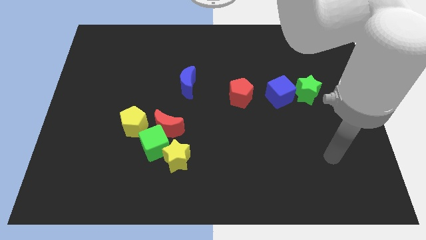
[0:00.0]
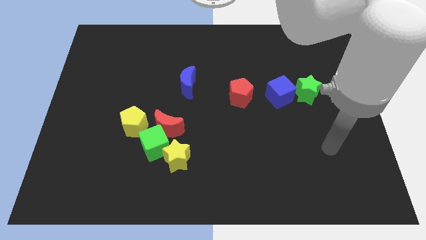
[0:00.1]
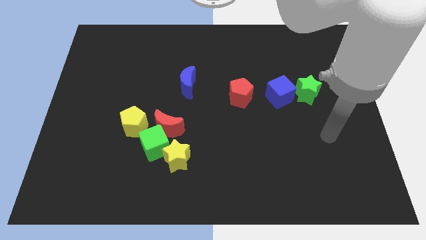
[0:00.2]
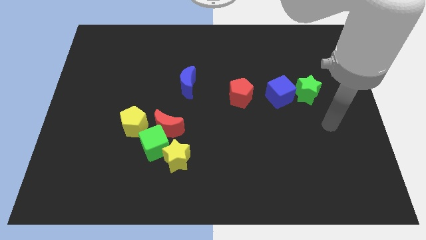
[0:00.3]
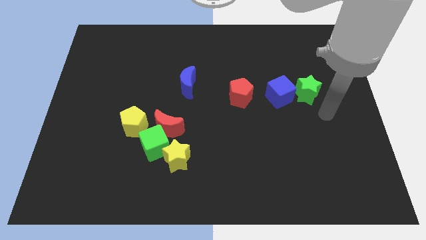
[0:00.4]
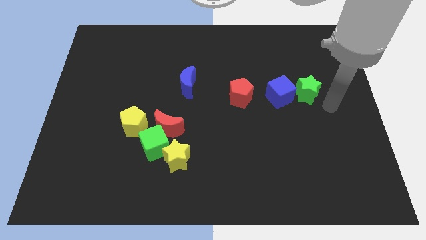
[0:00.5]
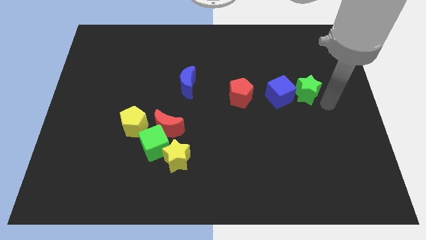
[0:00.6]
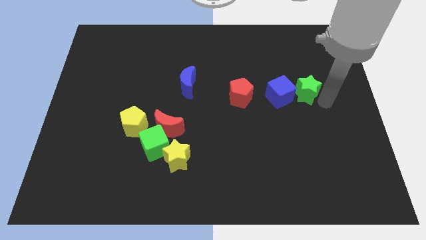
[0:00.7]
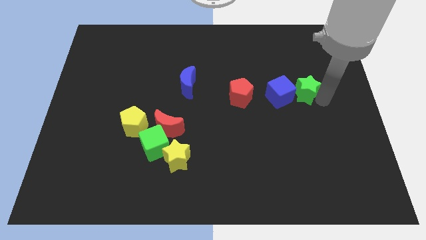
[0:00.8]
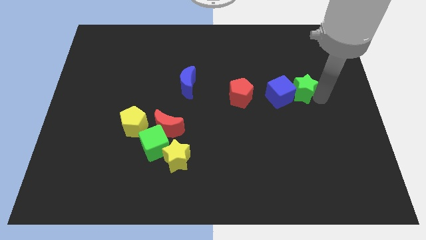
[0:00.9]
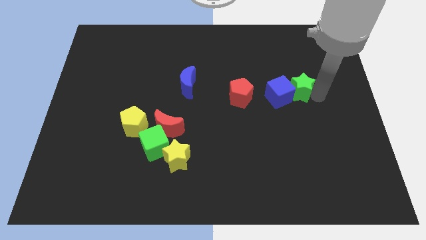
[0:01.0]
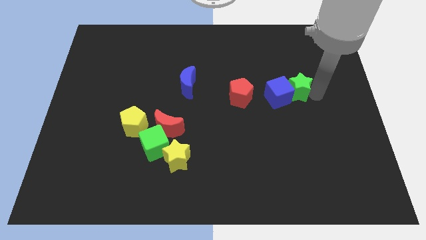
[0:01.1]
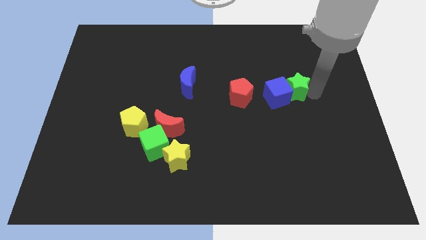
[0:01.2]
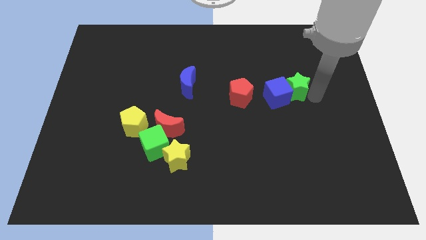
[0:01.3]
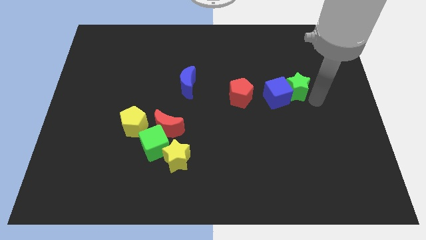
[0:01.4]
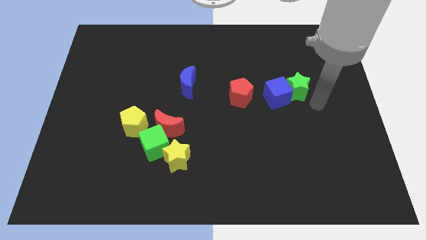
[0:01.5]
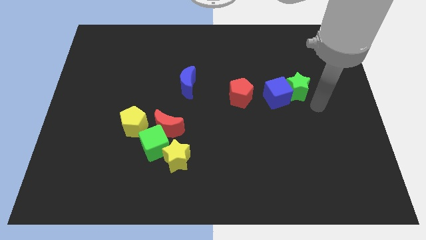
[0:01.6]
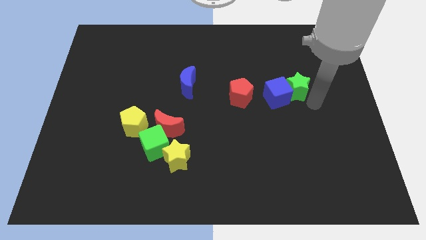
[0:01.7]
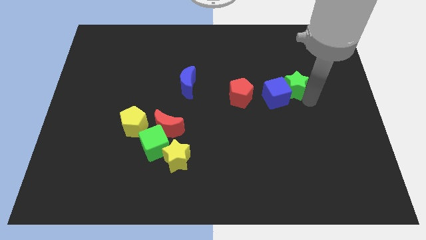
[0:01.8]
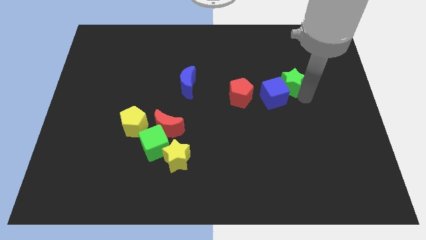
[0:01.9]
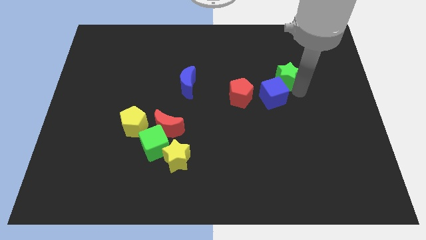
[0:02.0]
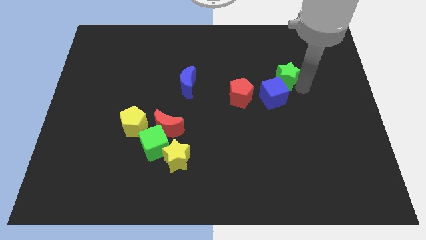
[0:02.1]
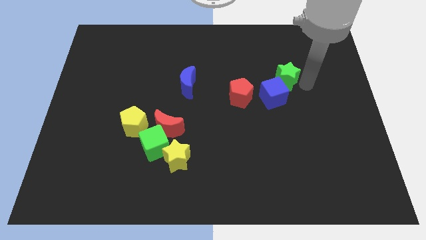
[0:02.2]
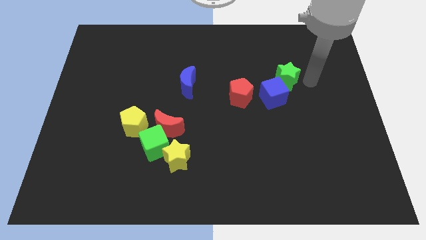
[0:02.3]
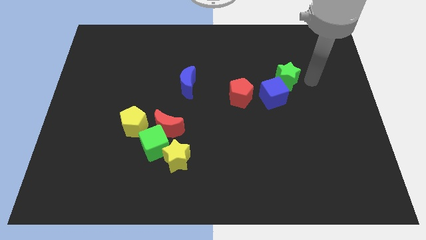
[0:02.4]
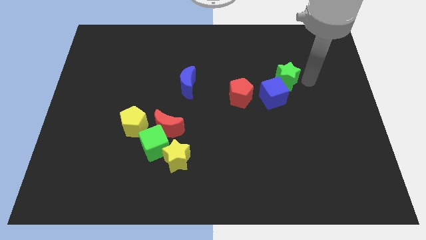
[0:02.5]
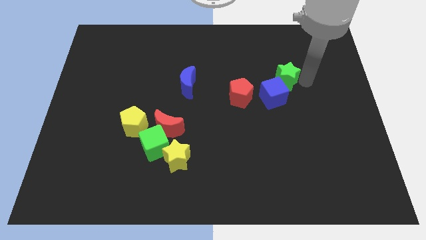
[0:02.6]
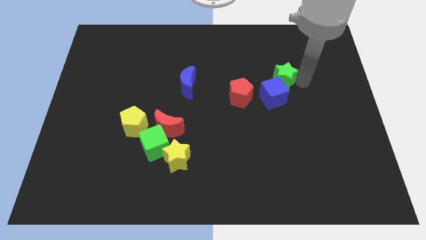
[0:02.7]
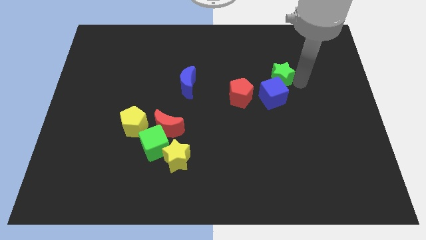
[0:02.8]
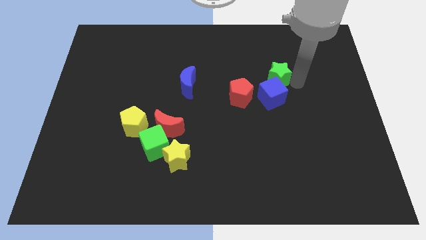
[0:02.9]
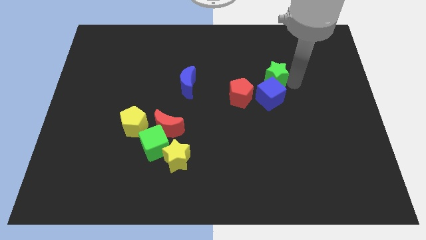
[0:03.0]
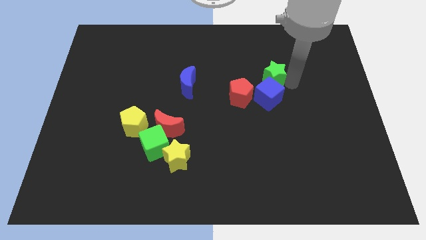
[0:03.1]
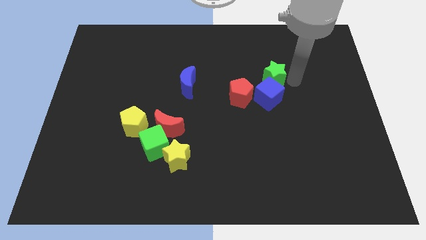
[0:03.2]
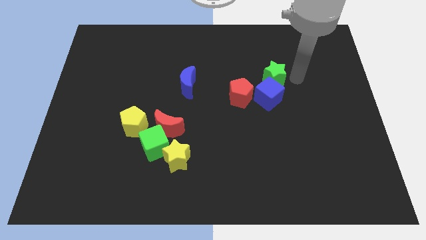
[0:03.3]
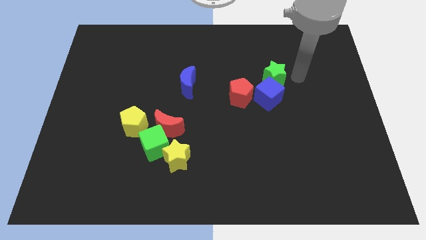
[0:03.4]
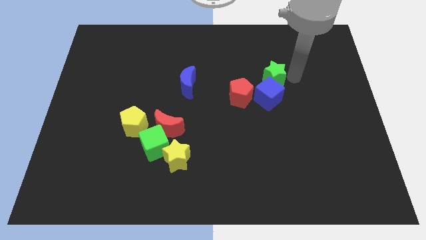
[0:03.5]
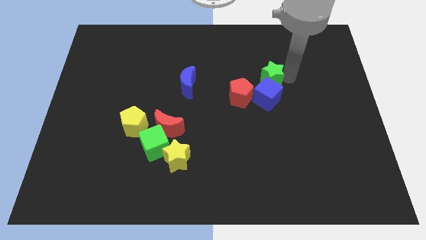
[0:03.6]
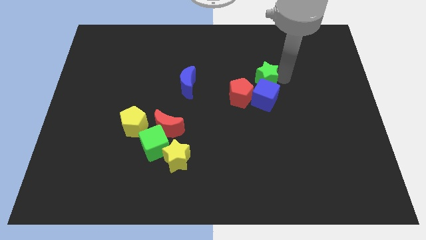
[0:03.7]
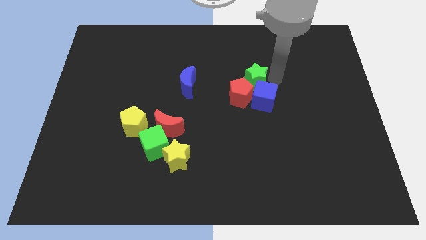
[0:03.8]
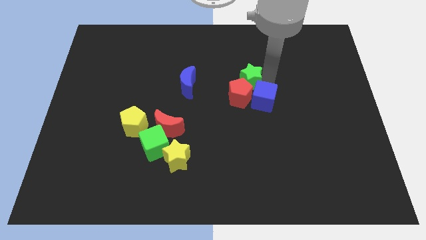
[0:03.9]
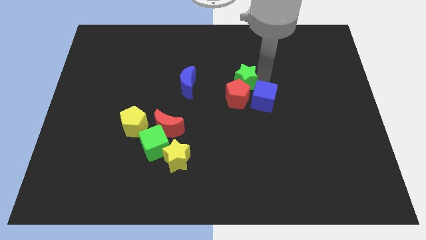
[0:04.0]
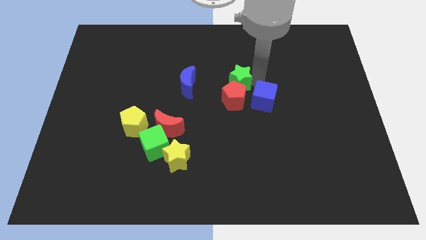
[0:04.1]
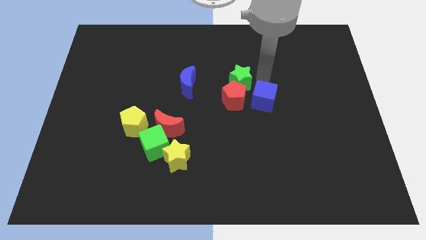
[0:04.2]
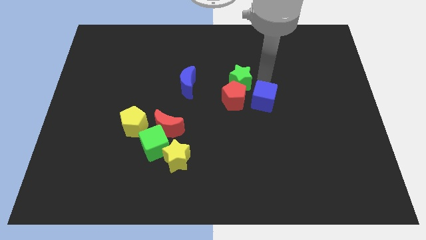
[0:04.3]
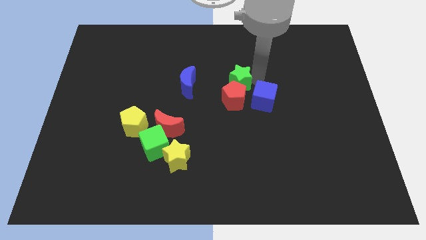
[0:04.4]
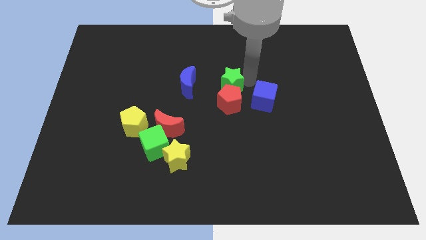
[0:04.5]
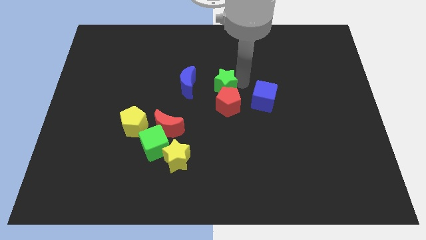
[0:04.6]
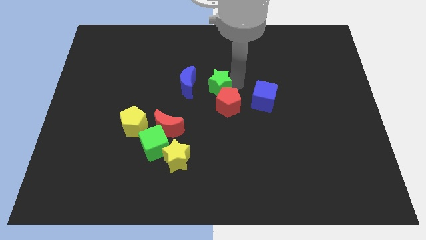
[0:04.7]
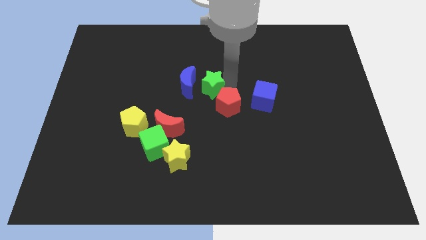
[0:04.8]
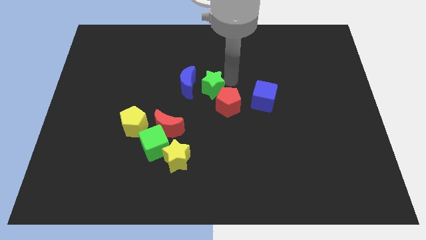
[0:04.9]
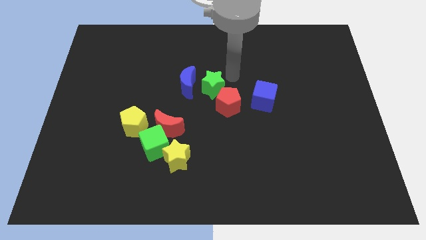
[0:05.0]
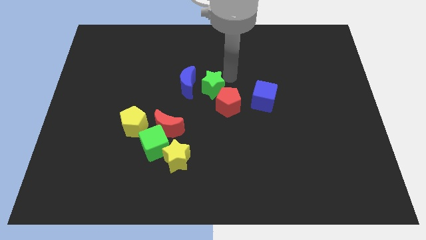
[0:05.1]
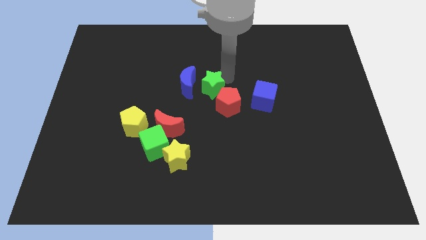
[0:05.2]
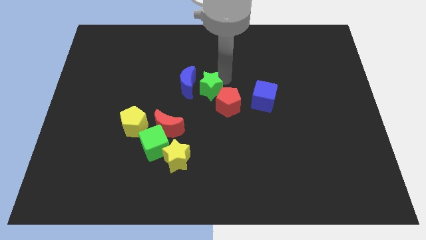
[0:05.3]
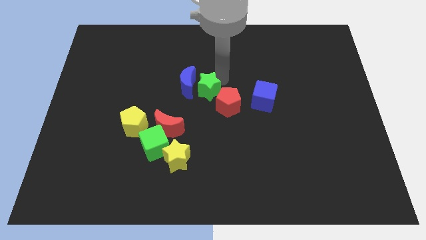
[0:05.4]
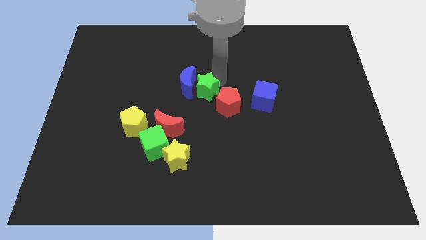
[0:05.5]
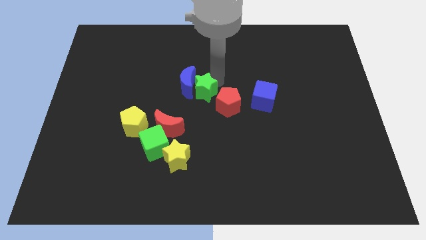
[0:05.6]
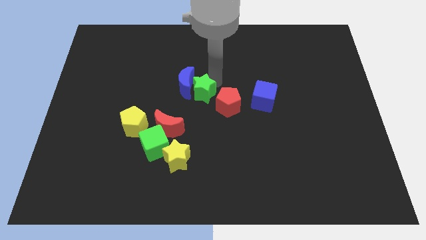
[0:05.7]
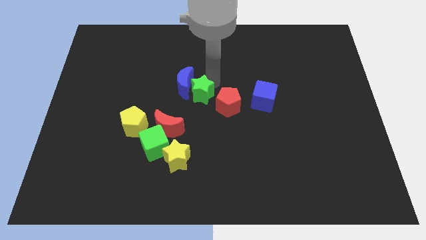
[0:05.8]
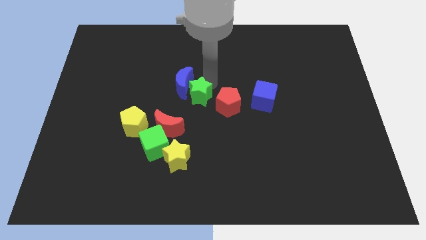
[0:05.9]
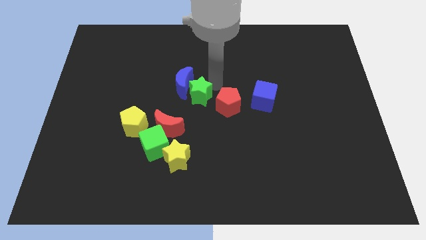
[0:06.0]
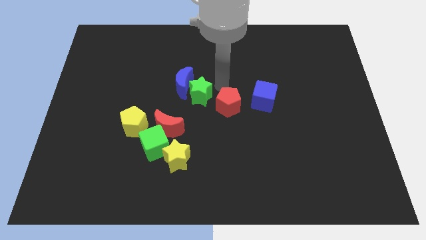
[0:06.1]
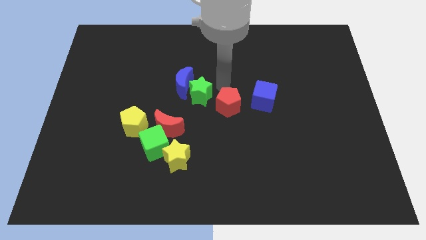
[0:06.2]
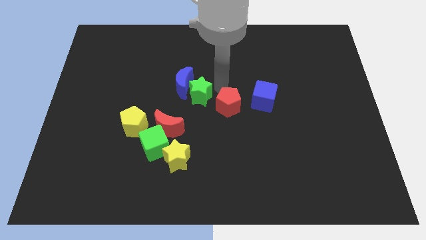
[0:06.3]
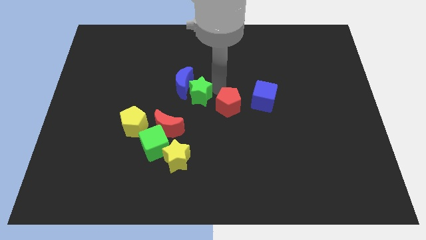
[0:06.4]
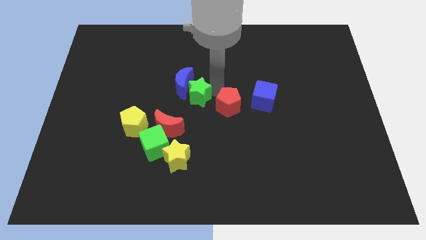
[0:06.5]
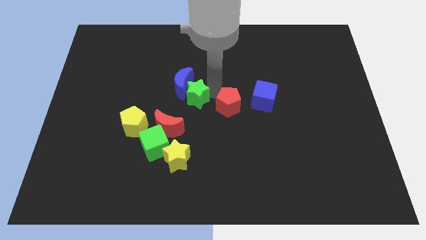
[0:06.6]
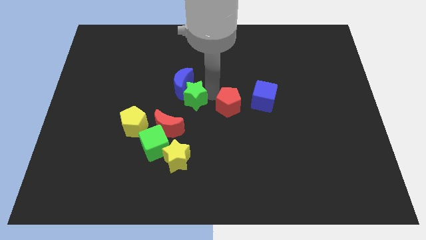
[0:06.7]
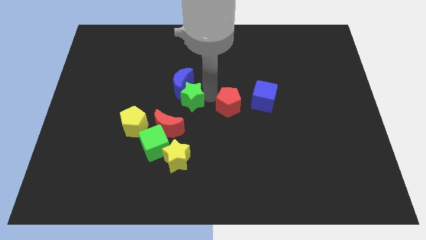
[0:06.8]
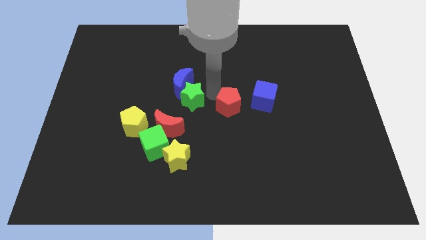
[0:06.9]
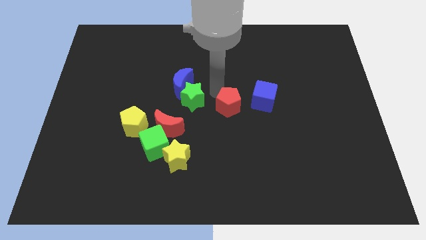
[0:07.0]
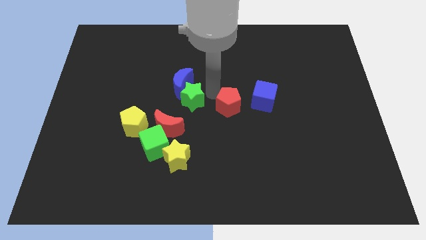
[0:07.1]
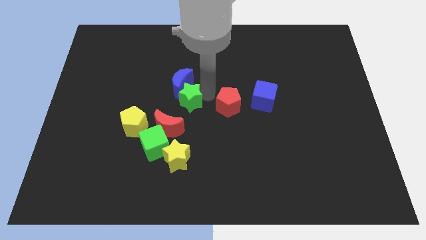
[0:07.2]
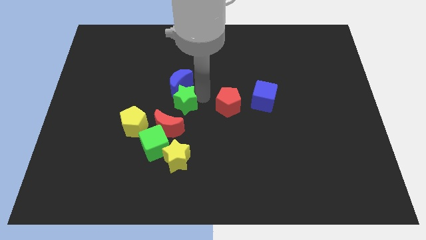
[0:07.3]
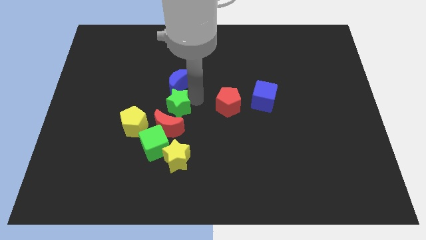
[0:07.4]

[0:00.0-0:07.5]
move the green star above the green cube
